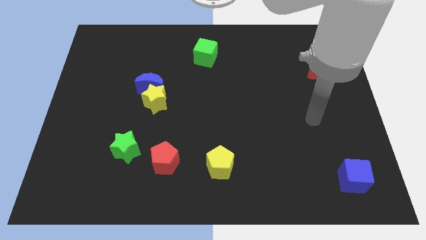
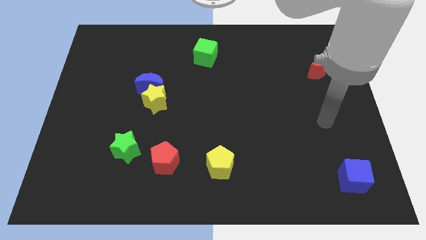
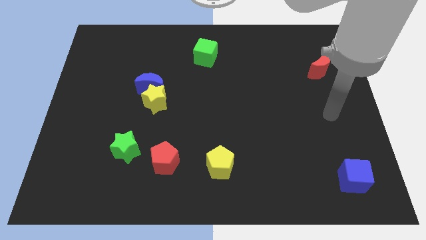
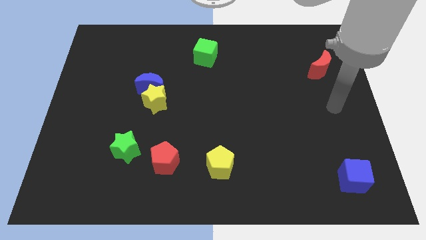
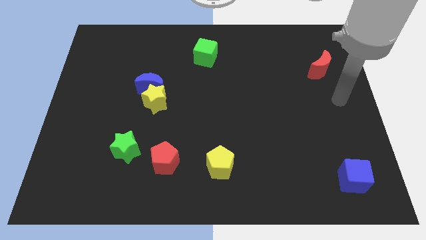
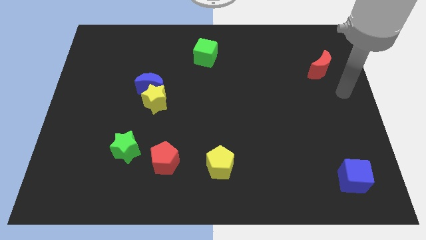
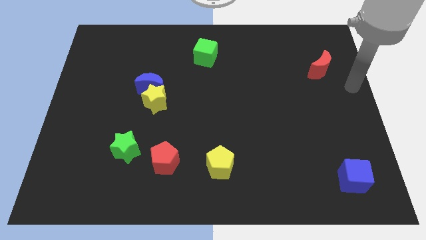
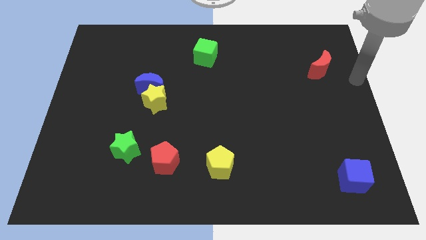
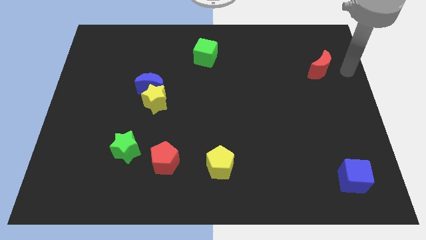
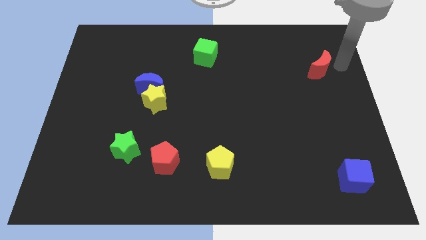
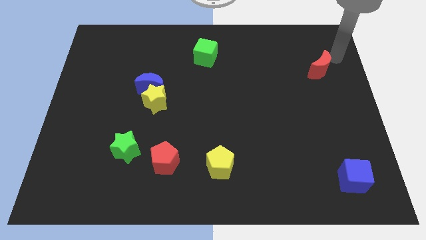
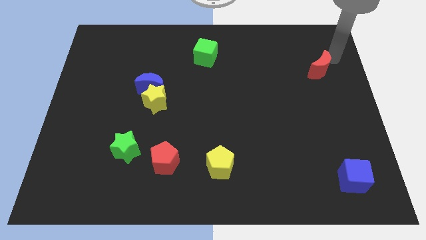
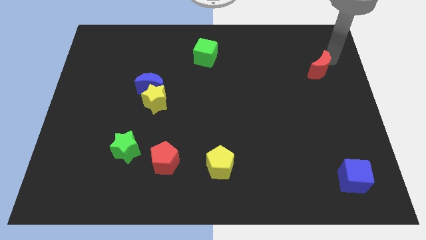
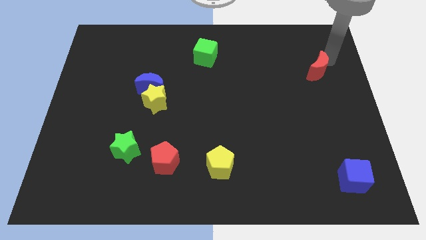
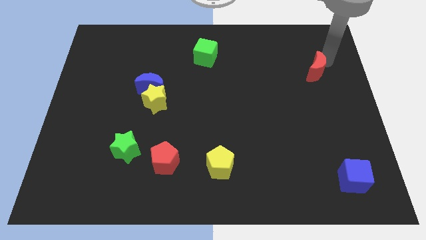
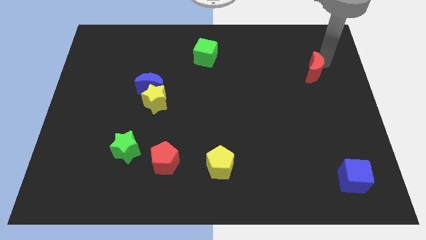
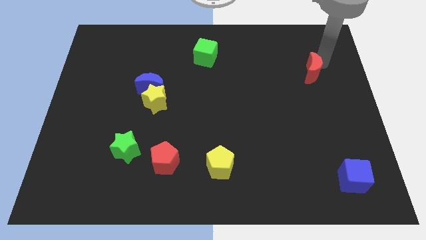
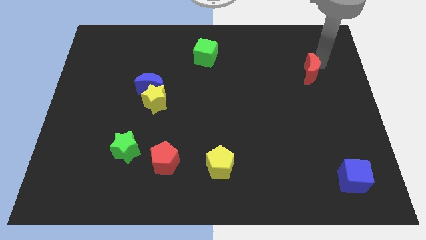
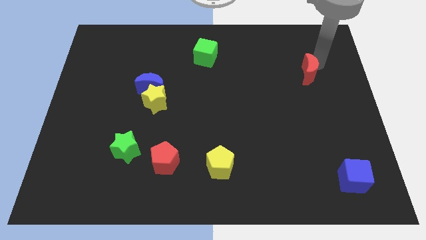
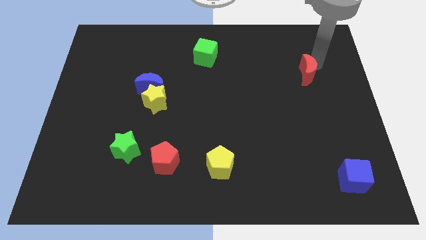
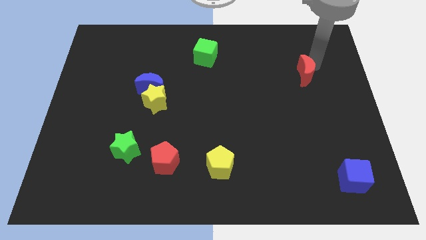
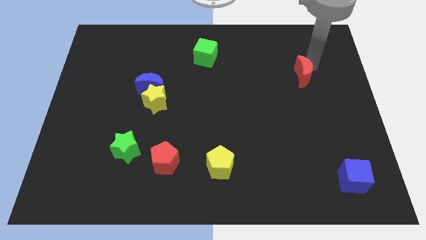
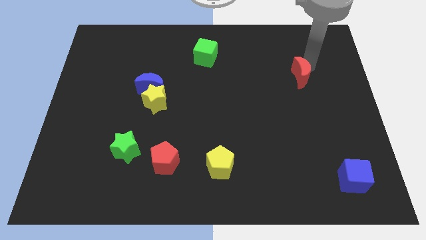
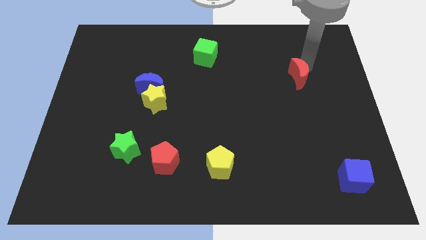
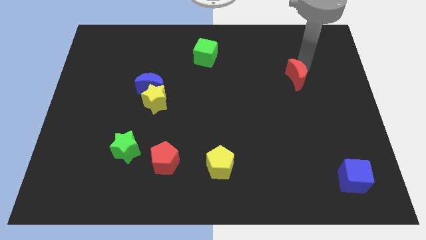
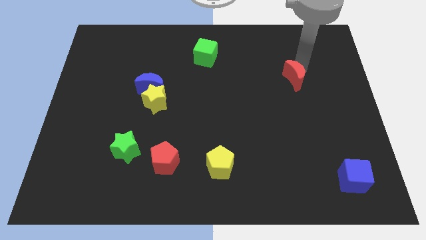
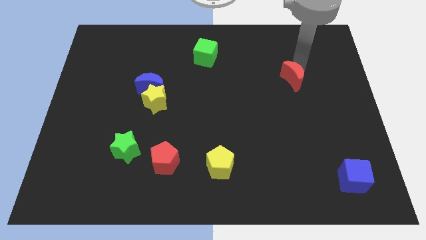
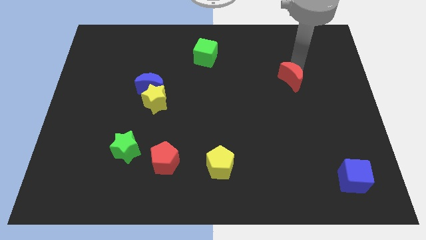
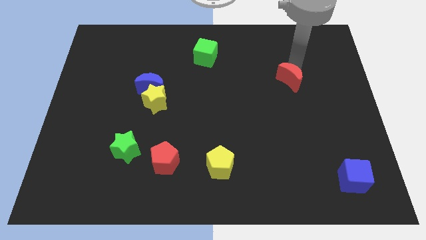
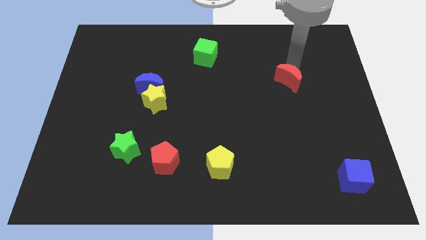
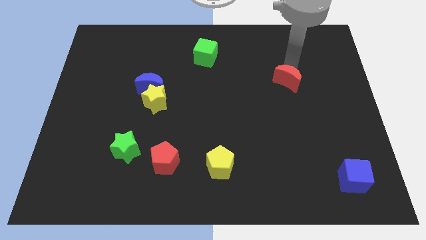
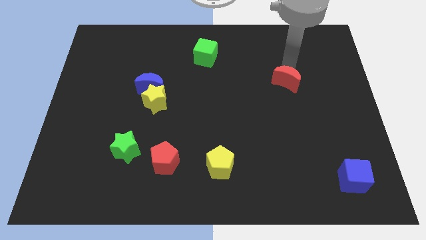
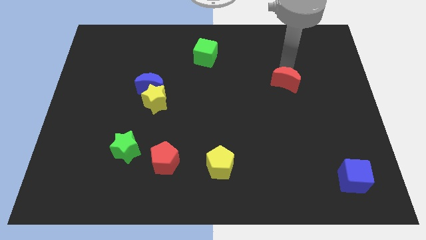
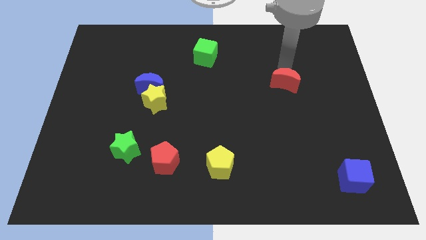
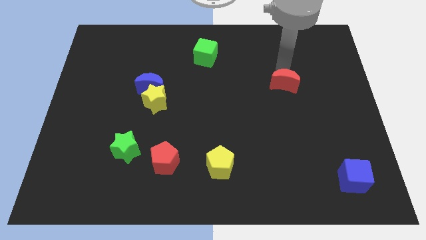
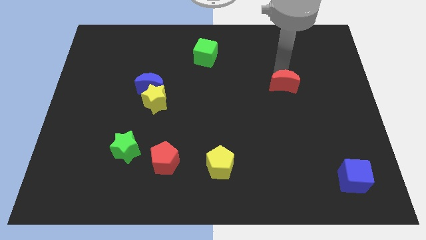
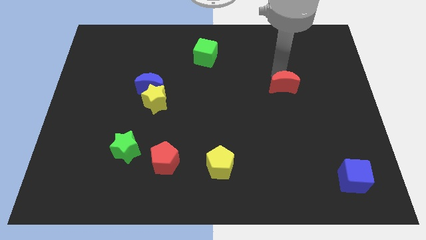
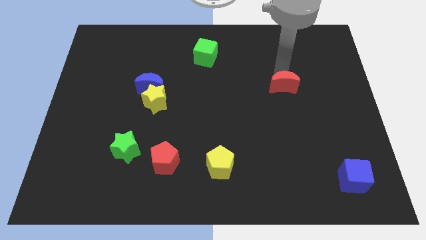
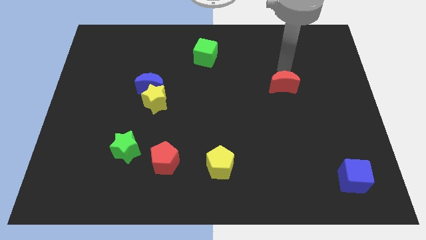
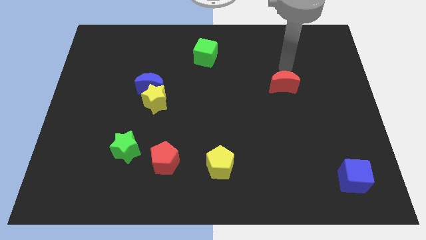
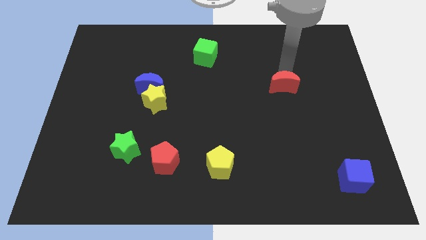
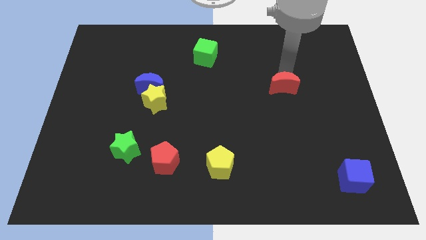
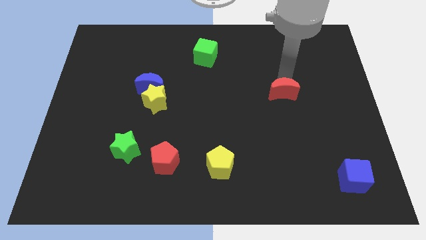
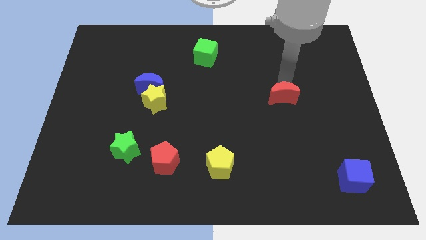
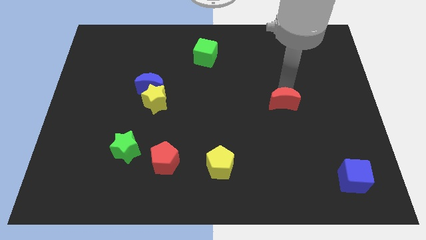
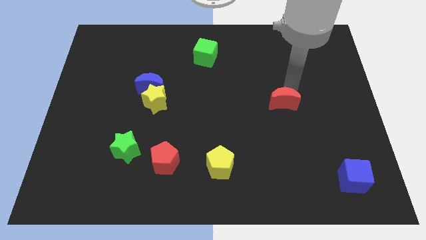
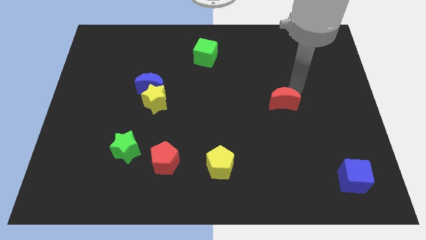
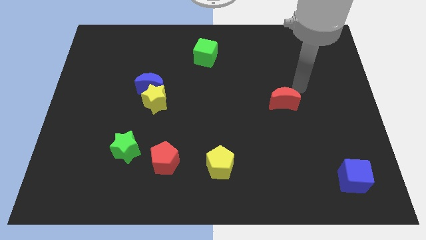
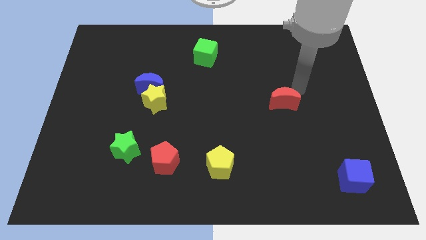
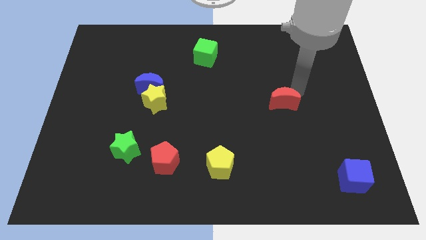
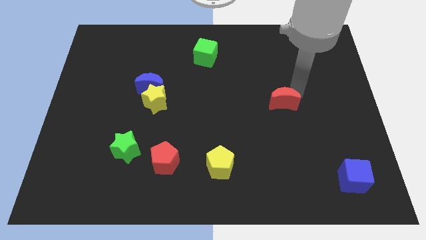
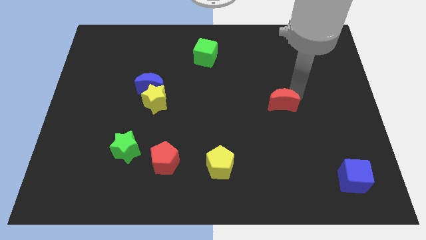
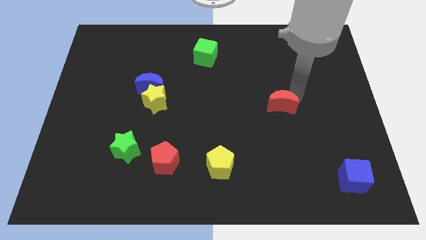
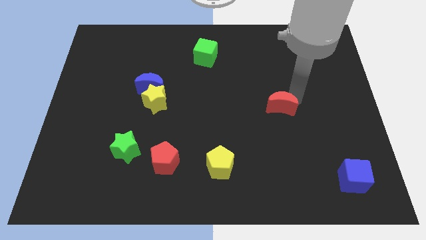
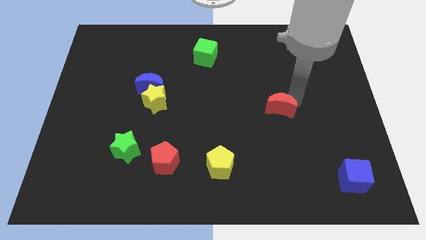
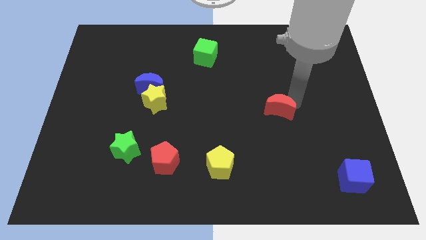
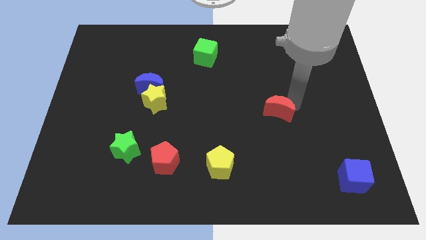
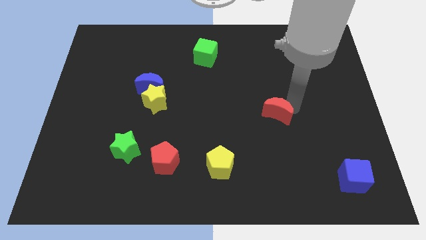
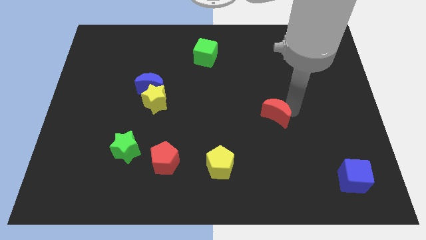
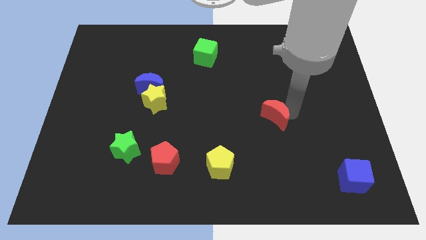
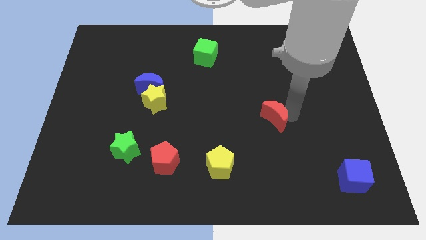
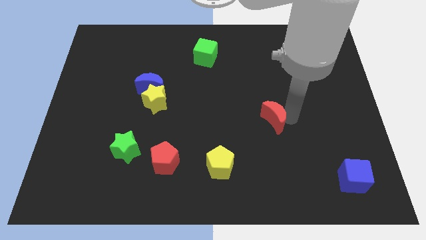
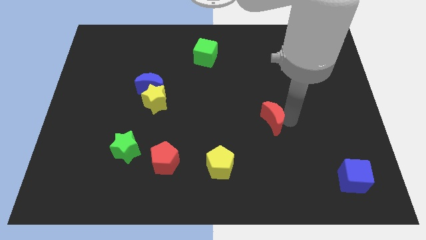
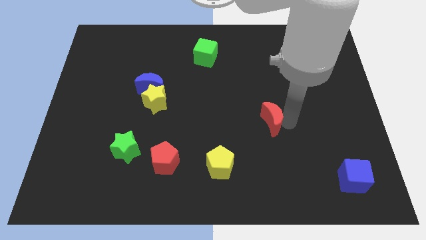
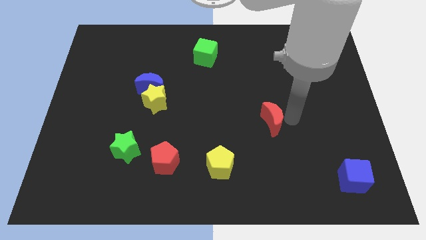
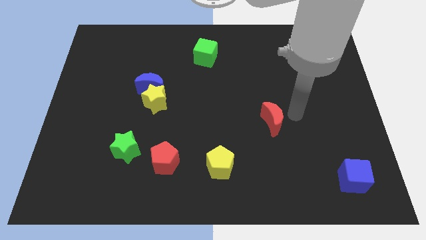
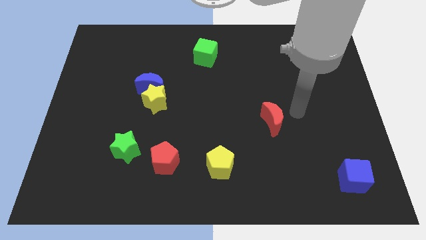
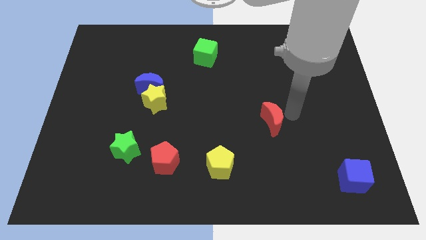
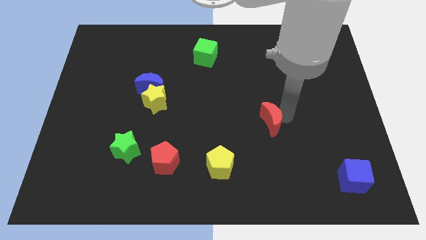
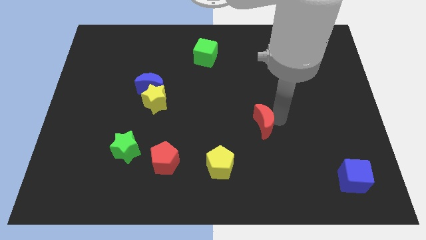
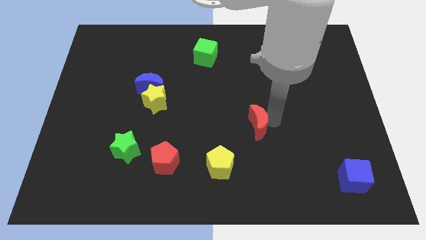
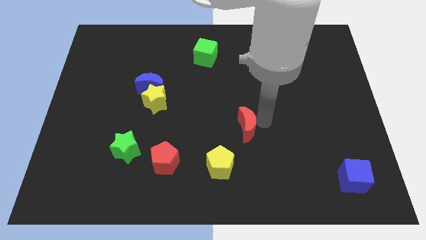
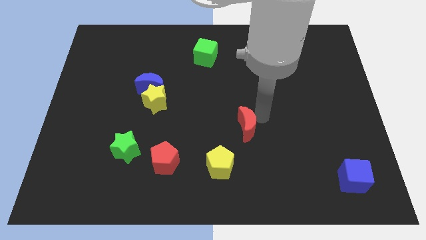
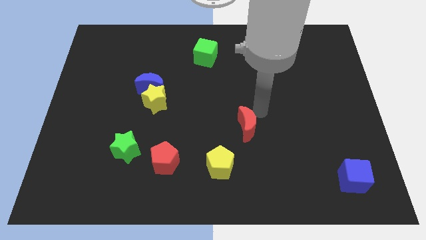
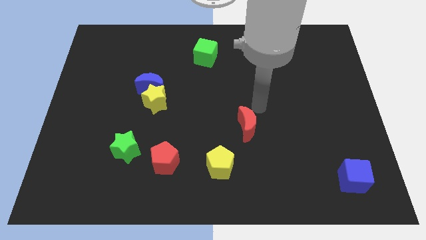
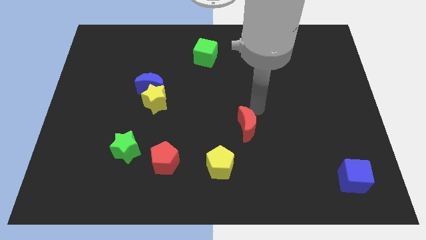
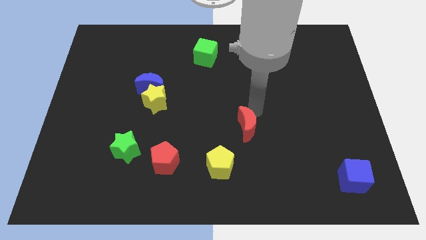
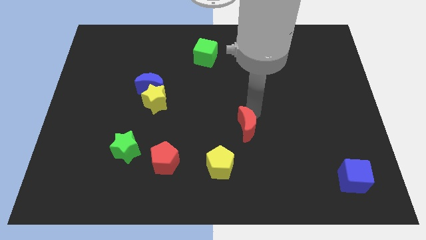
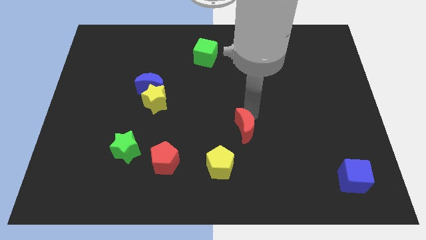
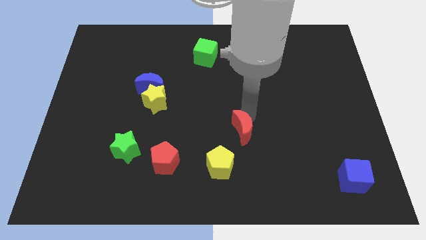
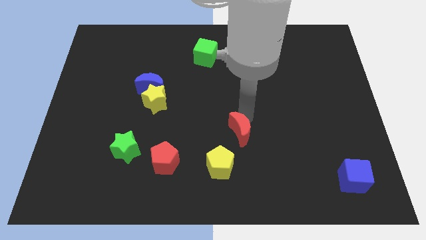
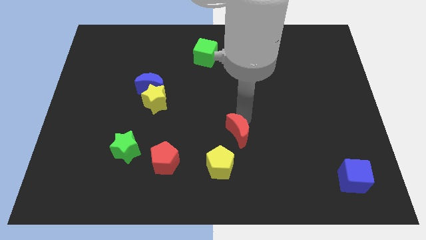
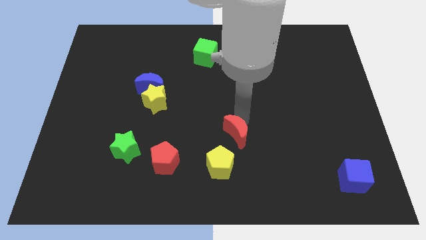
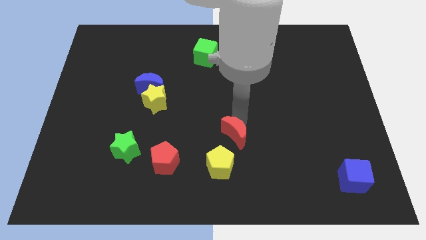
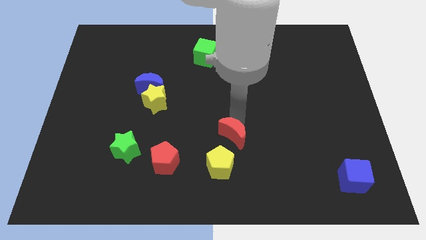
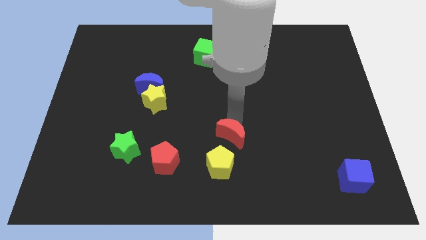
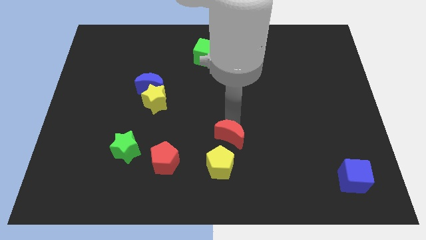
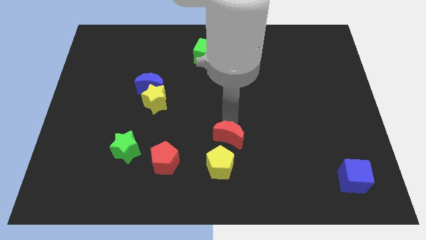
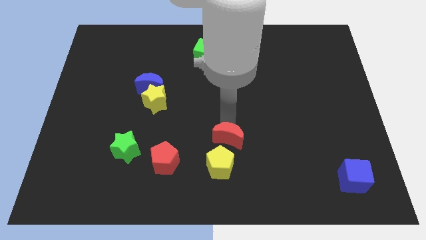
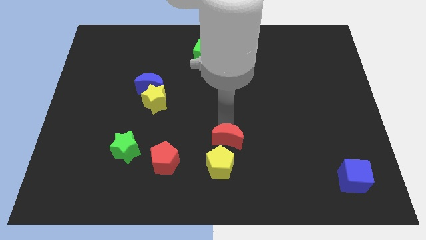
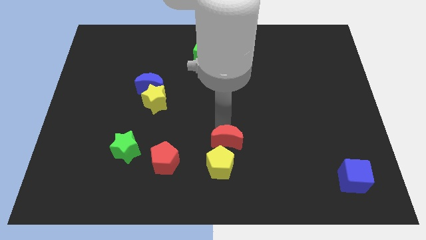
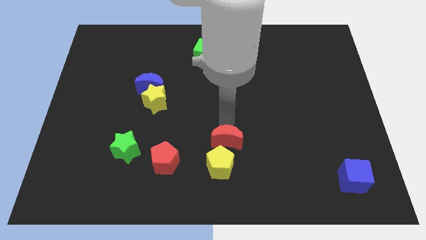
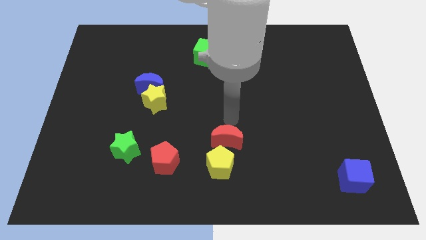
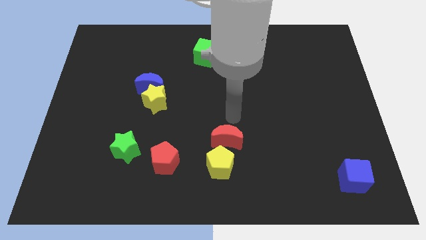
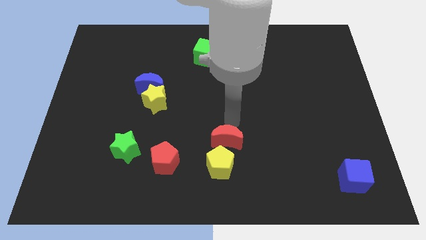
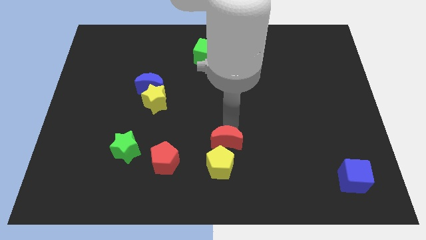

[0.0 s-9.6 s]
move the red moon to the yellow pentagon
